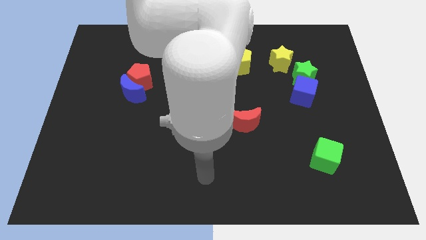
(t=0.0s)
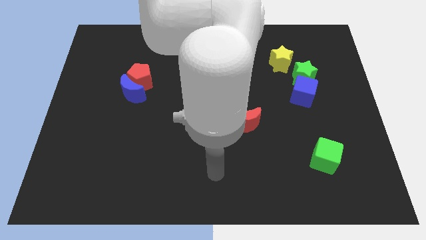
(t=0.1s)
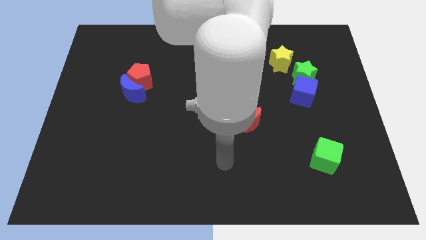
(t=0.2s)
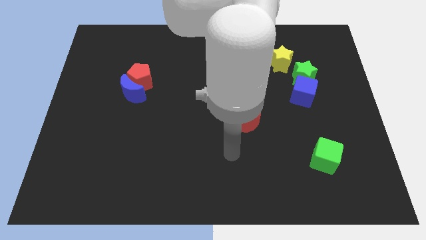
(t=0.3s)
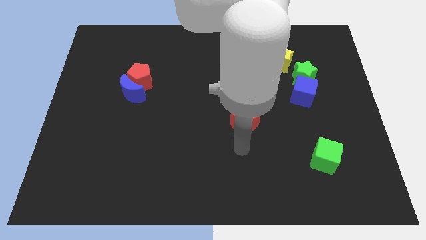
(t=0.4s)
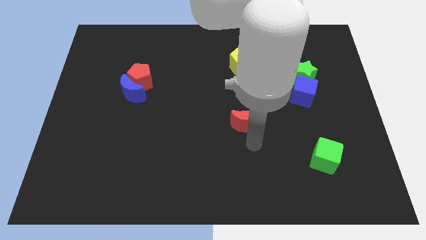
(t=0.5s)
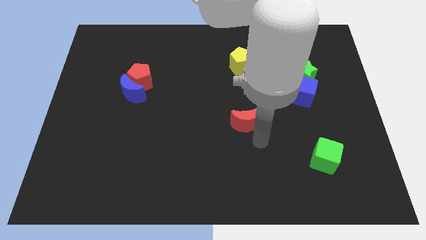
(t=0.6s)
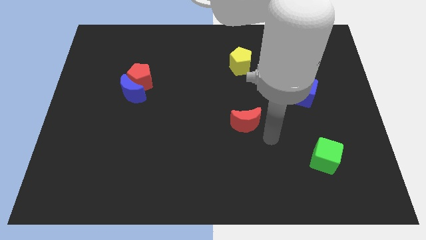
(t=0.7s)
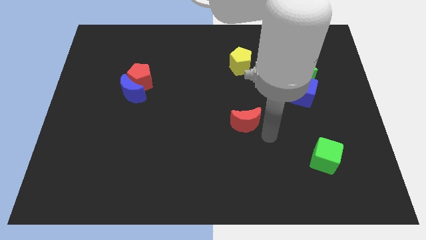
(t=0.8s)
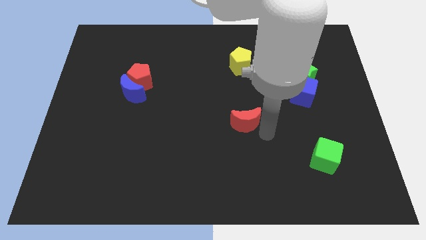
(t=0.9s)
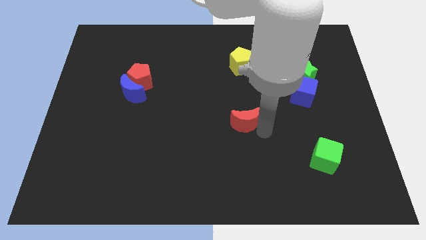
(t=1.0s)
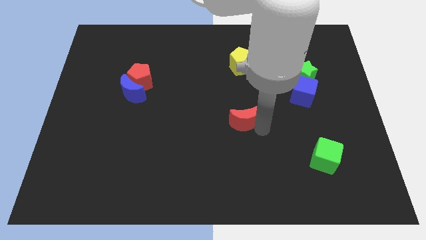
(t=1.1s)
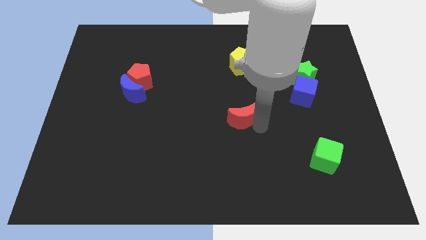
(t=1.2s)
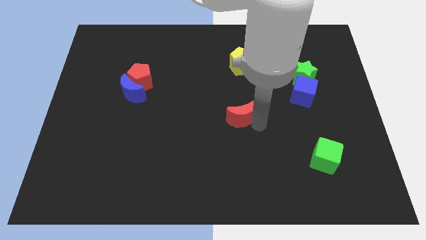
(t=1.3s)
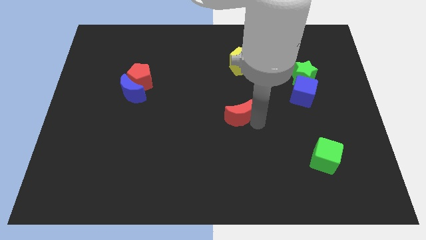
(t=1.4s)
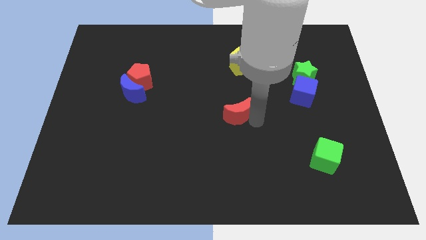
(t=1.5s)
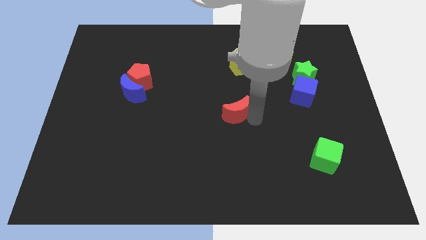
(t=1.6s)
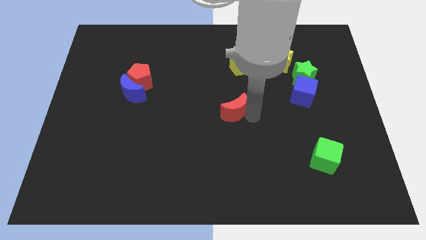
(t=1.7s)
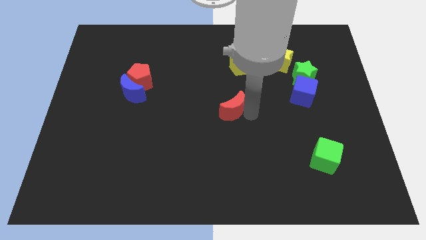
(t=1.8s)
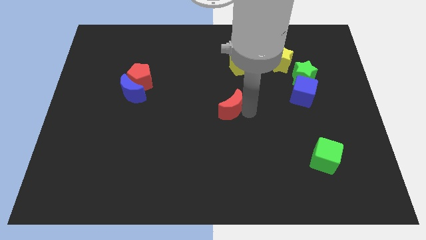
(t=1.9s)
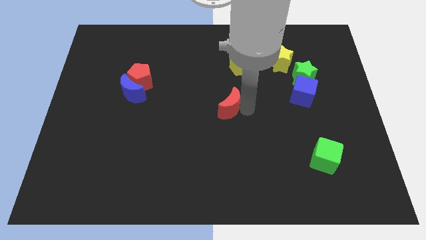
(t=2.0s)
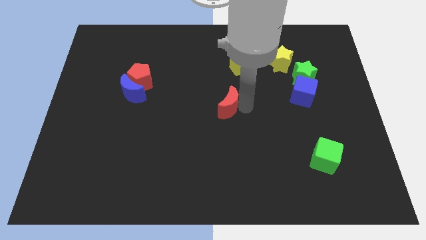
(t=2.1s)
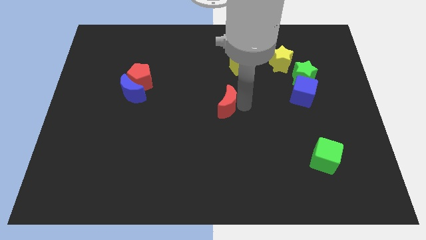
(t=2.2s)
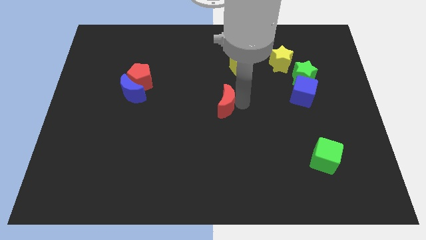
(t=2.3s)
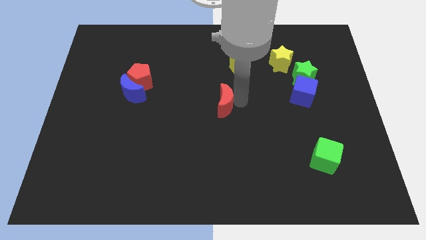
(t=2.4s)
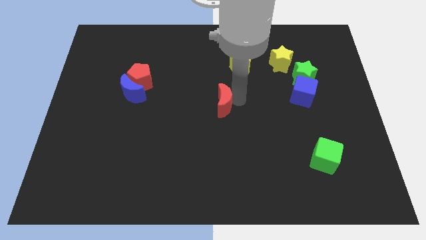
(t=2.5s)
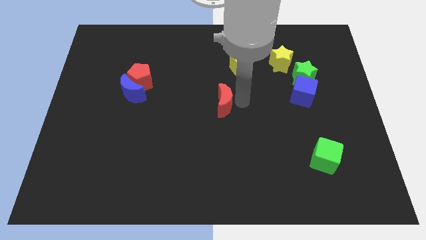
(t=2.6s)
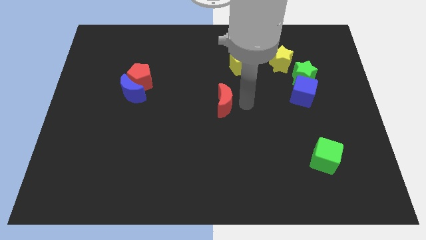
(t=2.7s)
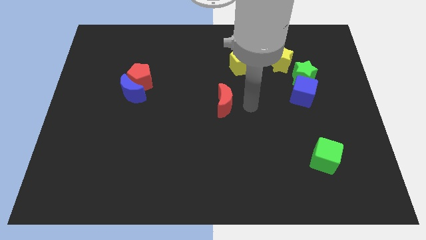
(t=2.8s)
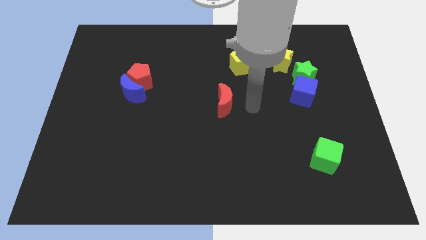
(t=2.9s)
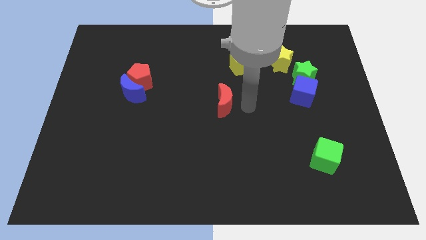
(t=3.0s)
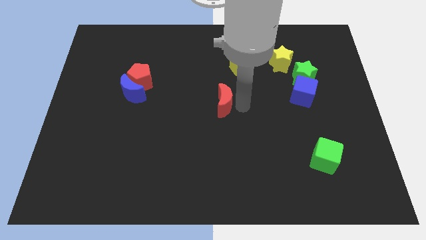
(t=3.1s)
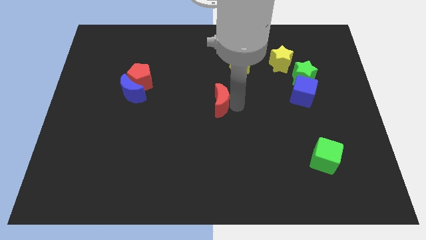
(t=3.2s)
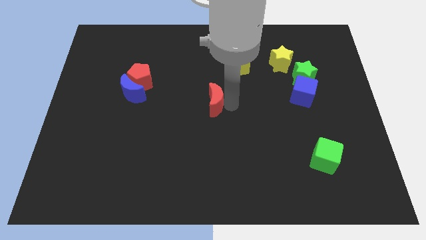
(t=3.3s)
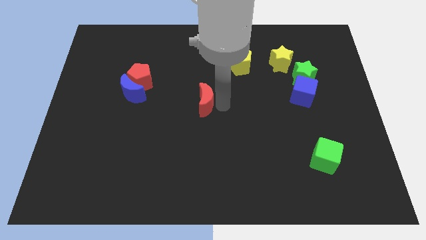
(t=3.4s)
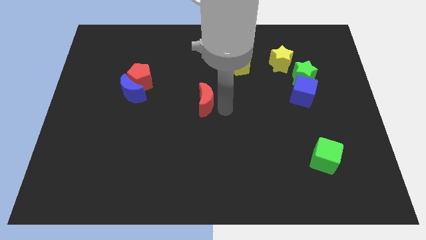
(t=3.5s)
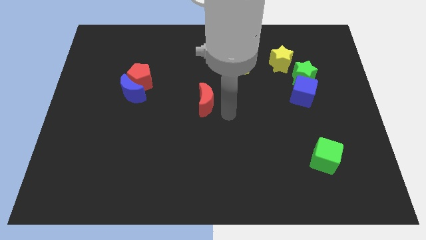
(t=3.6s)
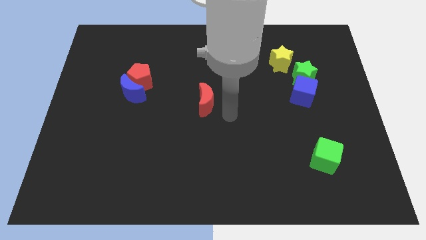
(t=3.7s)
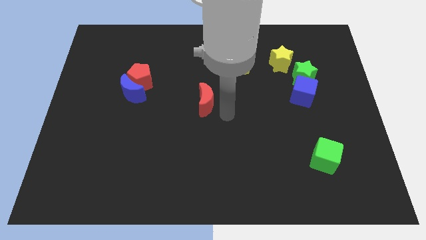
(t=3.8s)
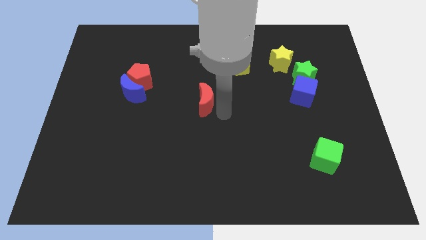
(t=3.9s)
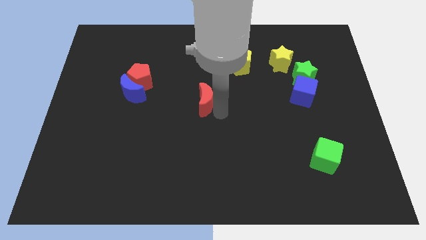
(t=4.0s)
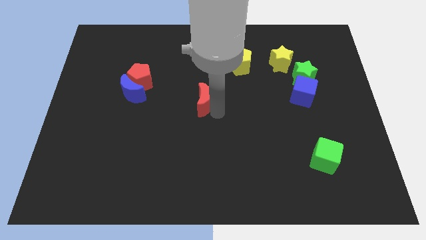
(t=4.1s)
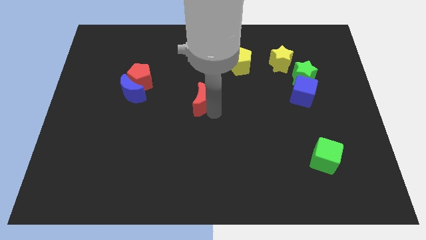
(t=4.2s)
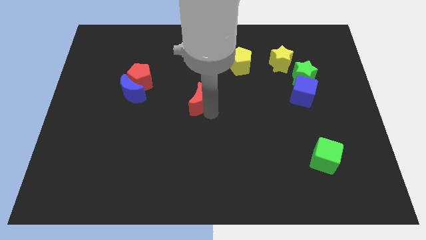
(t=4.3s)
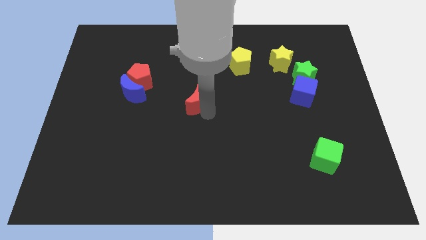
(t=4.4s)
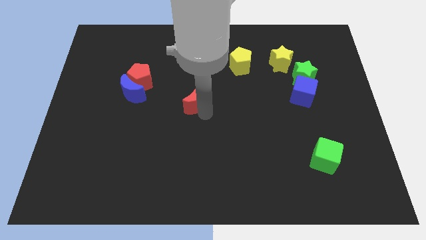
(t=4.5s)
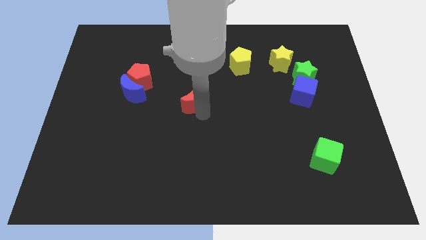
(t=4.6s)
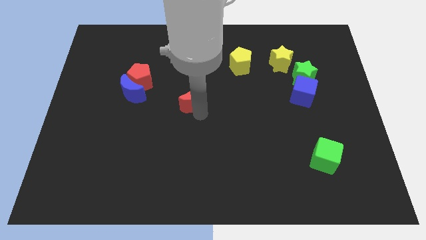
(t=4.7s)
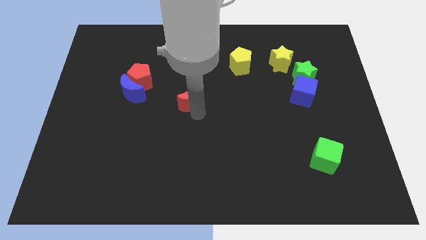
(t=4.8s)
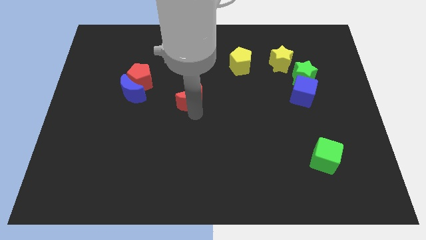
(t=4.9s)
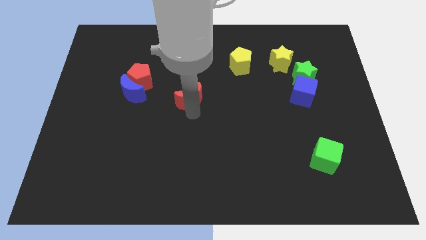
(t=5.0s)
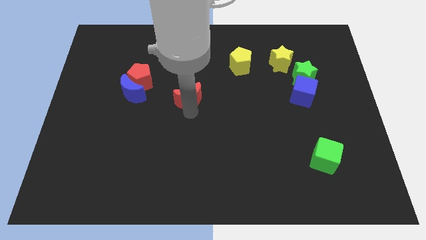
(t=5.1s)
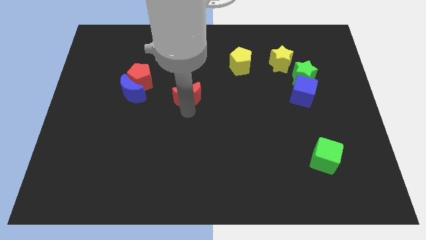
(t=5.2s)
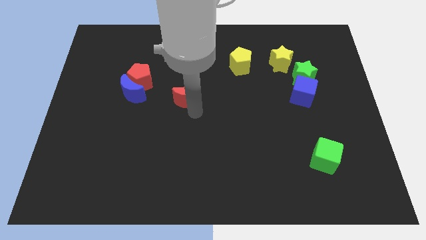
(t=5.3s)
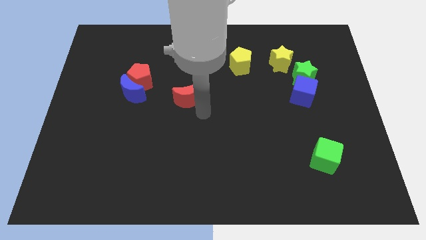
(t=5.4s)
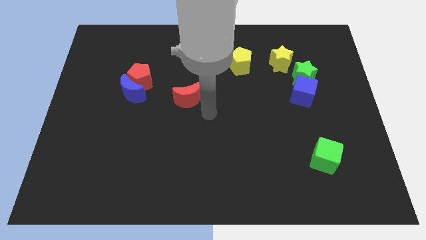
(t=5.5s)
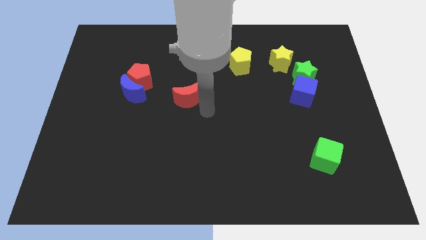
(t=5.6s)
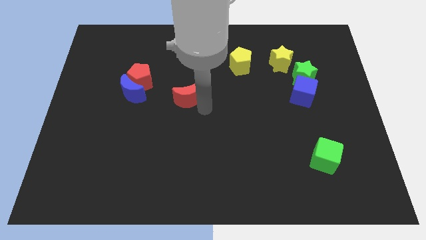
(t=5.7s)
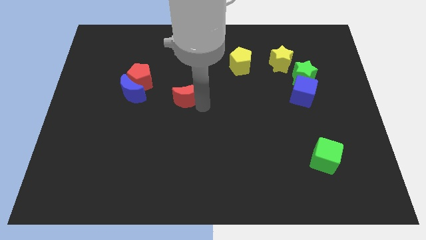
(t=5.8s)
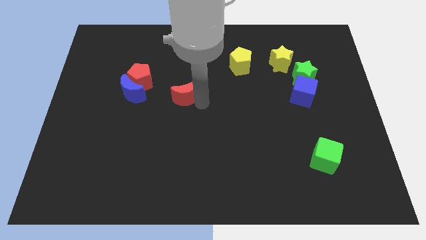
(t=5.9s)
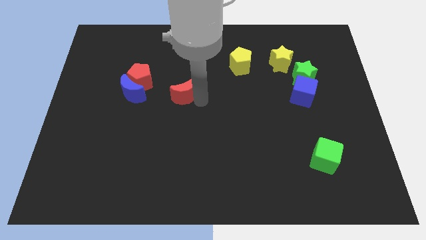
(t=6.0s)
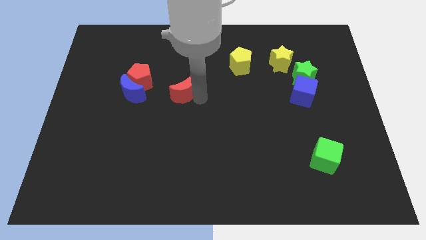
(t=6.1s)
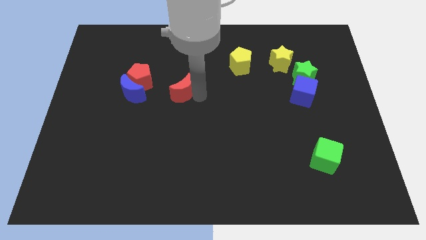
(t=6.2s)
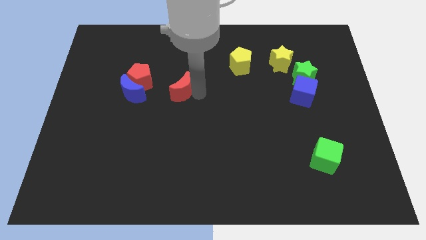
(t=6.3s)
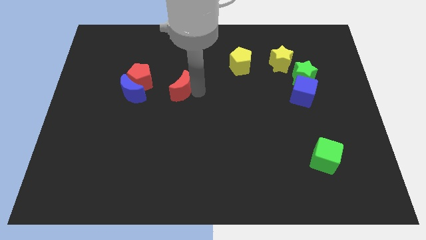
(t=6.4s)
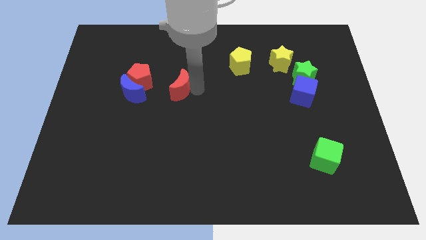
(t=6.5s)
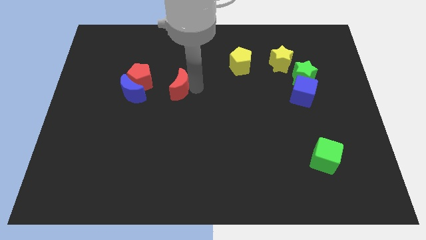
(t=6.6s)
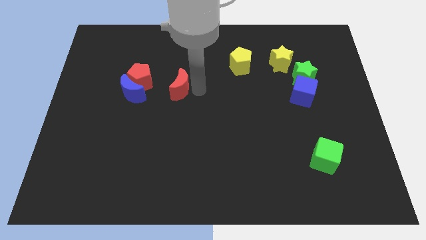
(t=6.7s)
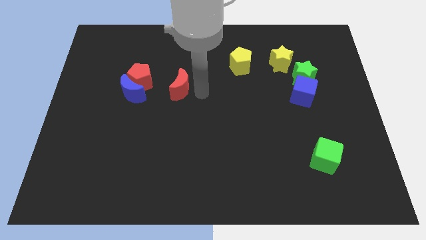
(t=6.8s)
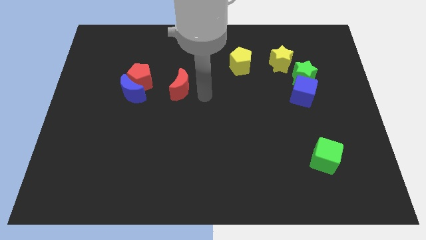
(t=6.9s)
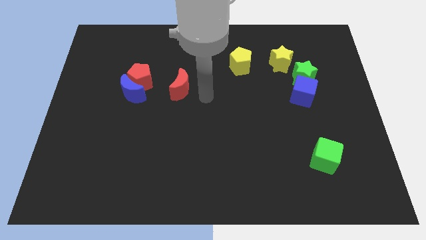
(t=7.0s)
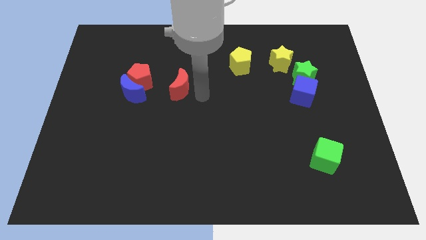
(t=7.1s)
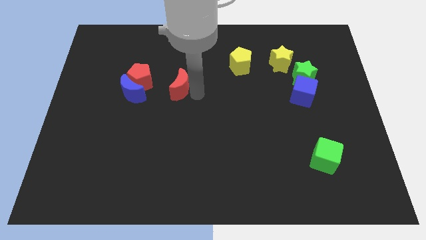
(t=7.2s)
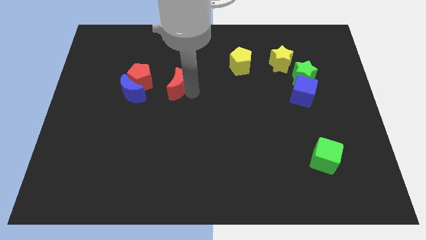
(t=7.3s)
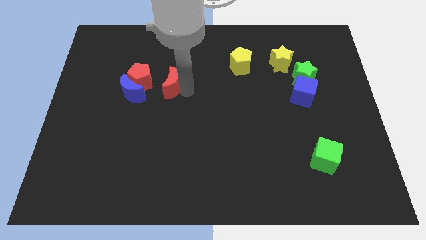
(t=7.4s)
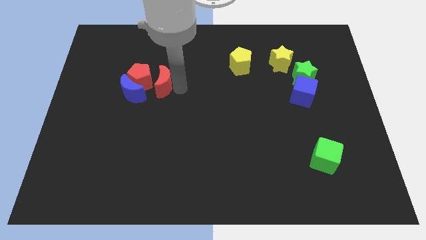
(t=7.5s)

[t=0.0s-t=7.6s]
move the red moon next to the red pentagon
